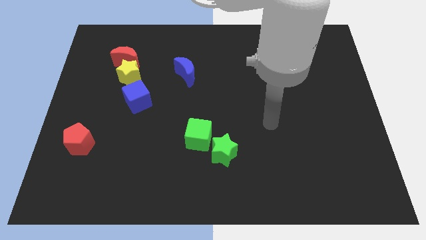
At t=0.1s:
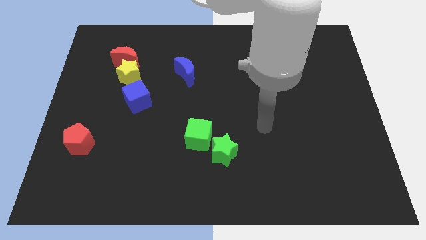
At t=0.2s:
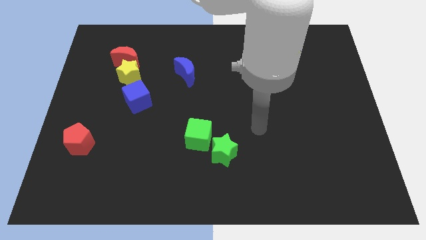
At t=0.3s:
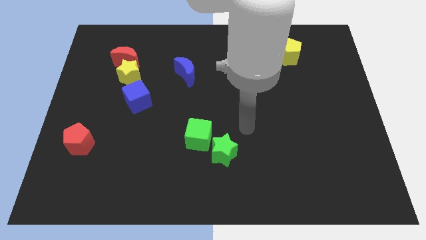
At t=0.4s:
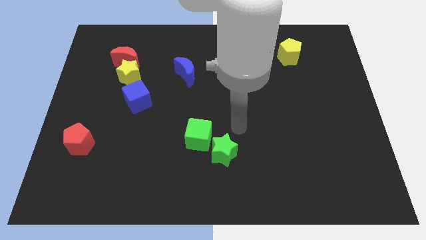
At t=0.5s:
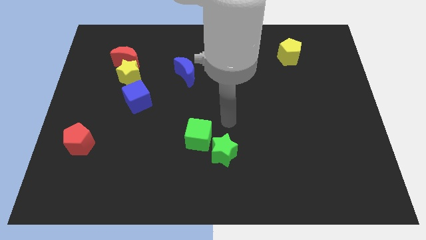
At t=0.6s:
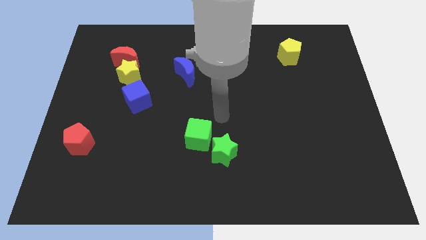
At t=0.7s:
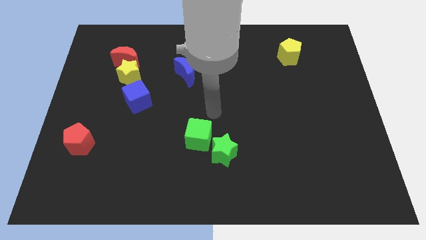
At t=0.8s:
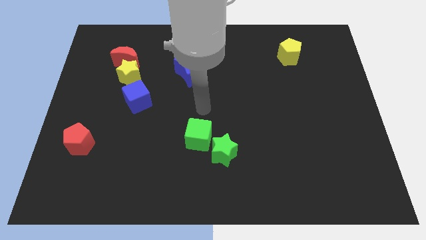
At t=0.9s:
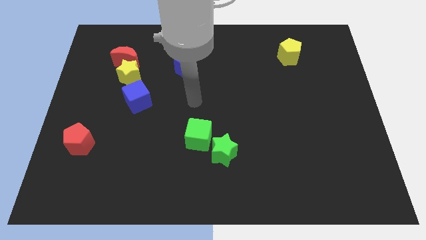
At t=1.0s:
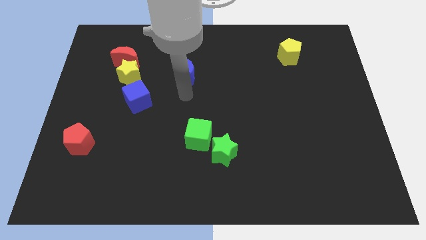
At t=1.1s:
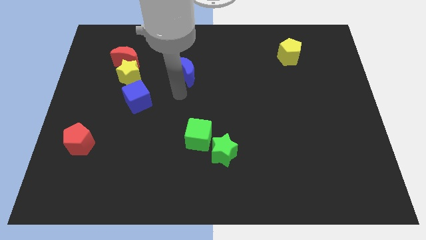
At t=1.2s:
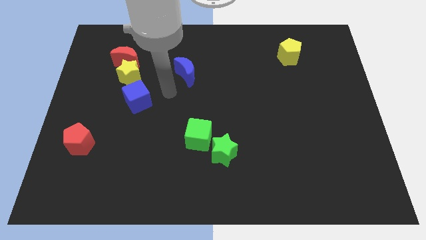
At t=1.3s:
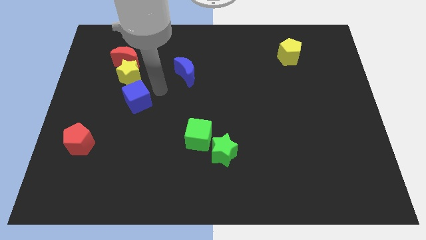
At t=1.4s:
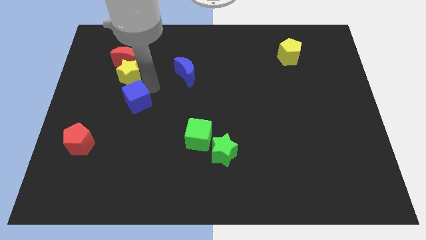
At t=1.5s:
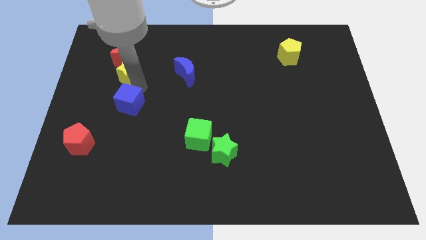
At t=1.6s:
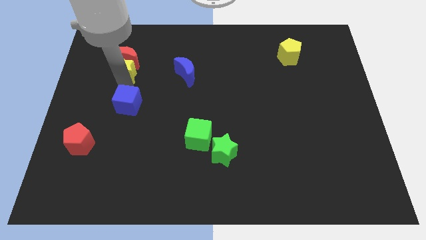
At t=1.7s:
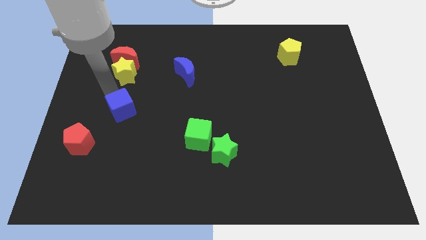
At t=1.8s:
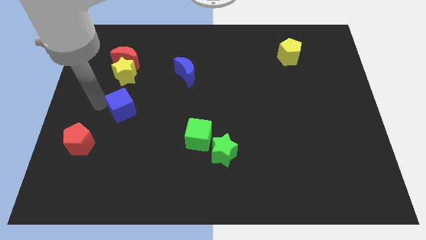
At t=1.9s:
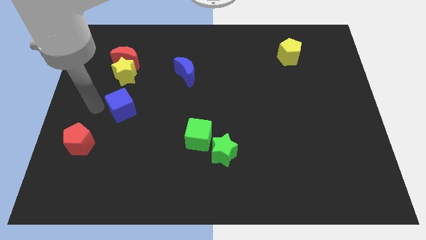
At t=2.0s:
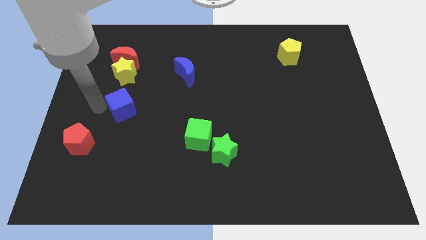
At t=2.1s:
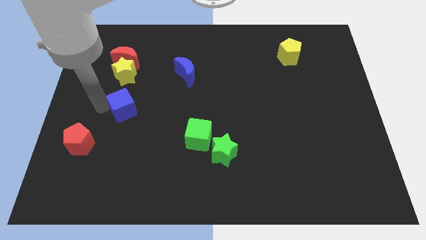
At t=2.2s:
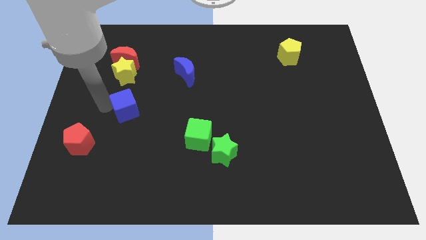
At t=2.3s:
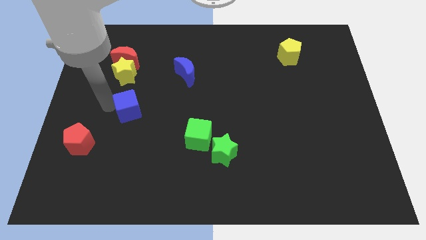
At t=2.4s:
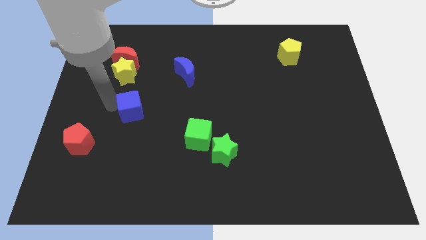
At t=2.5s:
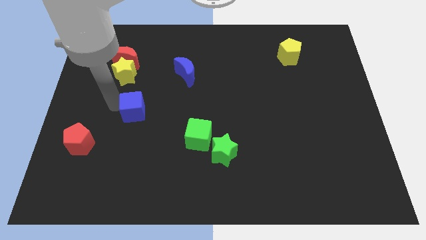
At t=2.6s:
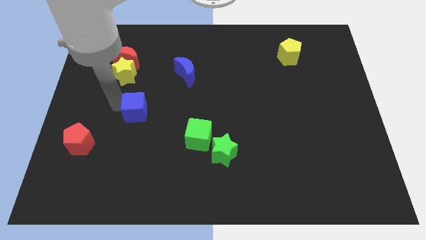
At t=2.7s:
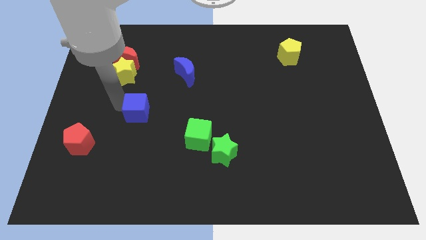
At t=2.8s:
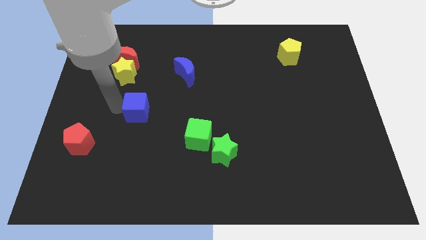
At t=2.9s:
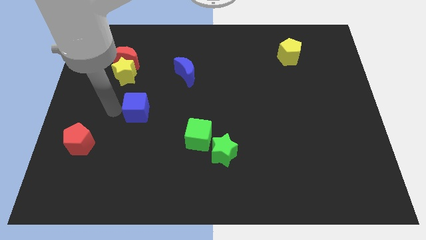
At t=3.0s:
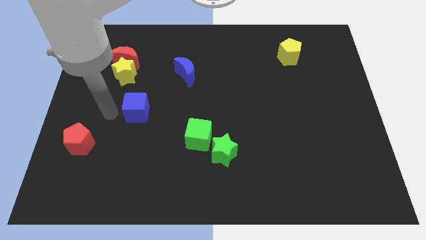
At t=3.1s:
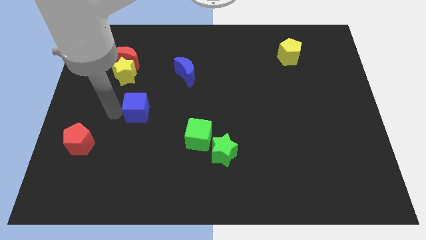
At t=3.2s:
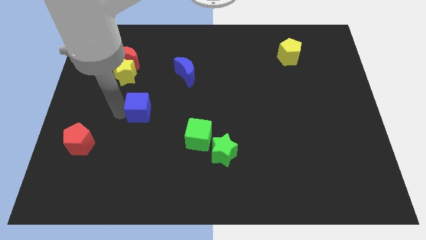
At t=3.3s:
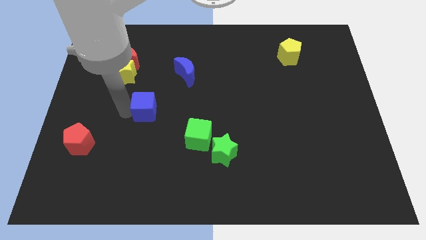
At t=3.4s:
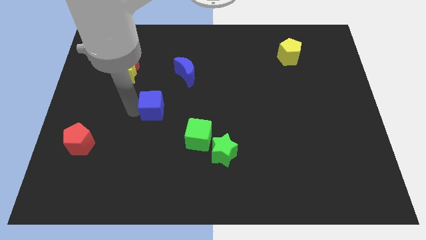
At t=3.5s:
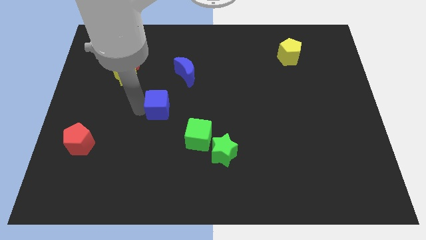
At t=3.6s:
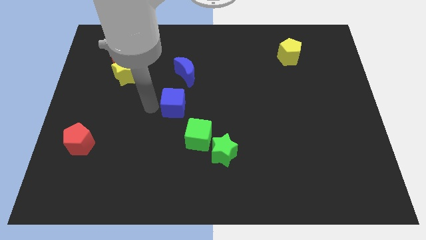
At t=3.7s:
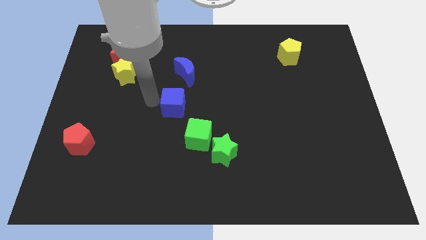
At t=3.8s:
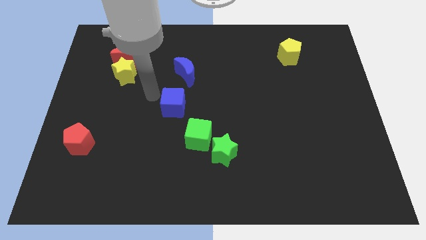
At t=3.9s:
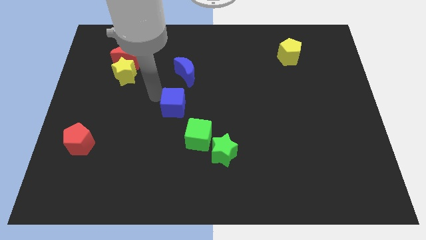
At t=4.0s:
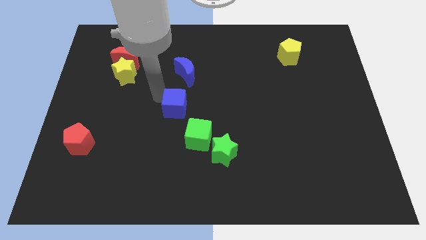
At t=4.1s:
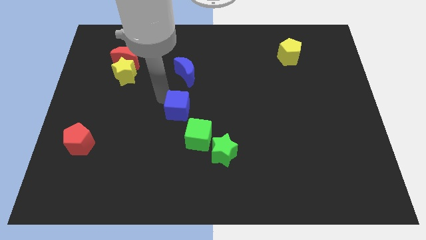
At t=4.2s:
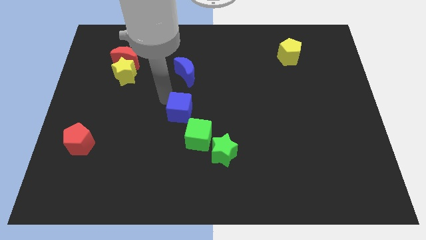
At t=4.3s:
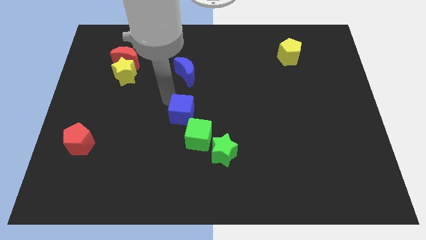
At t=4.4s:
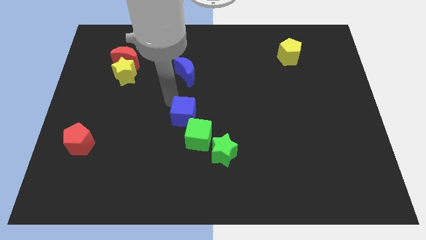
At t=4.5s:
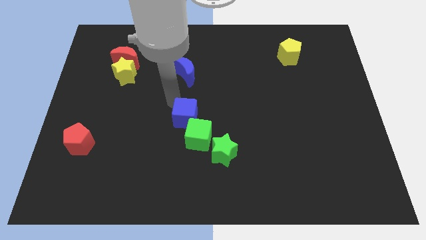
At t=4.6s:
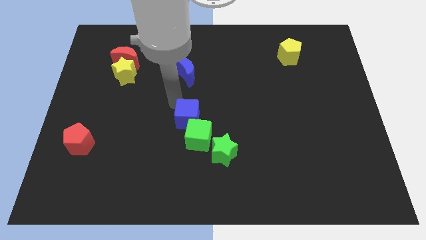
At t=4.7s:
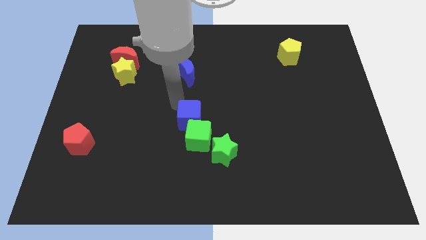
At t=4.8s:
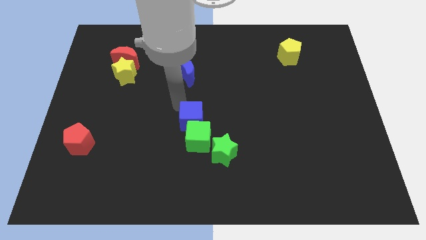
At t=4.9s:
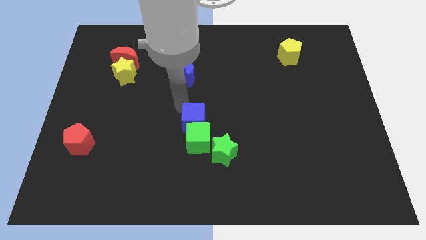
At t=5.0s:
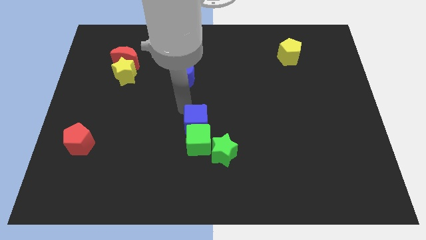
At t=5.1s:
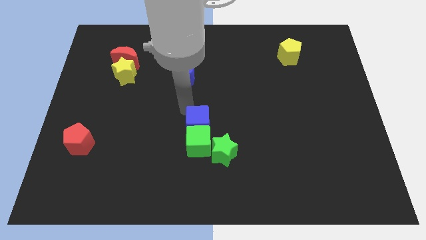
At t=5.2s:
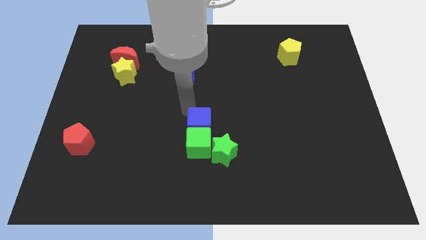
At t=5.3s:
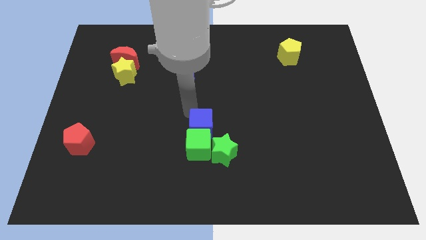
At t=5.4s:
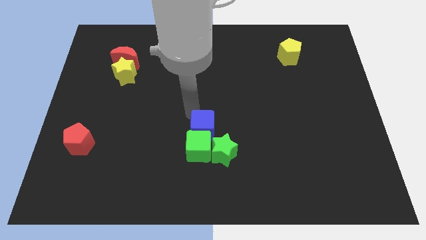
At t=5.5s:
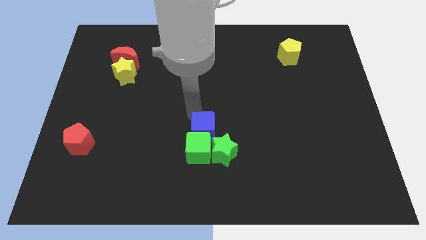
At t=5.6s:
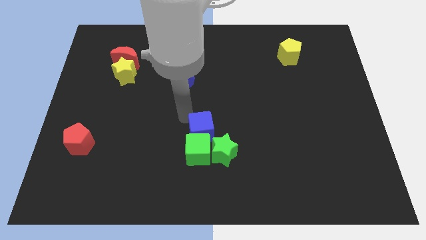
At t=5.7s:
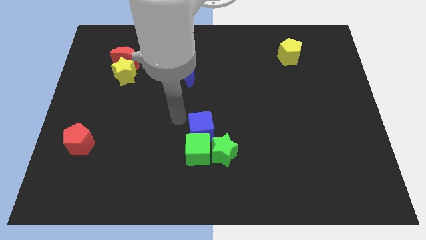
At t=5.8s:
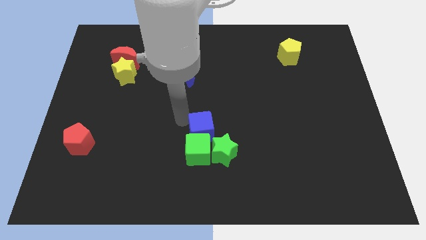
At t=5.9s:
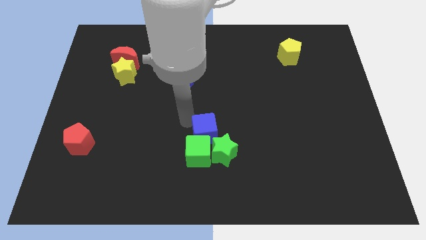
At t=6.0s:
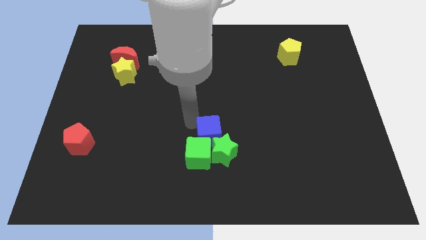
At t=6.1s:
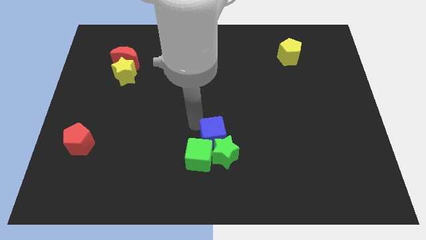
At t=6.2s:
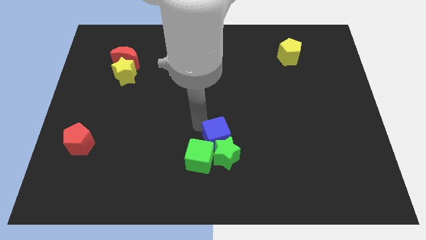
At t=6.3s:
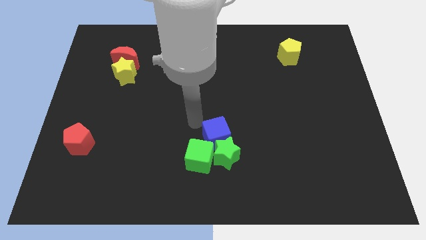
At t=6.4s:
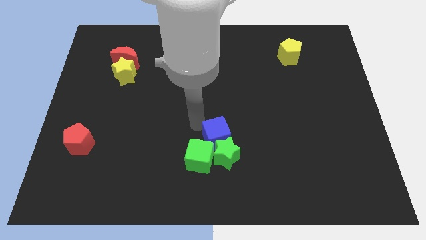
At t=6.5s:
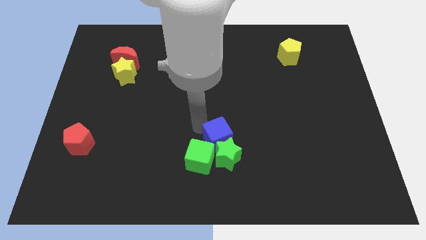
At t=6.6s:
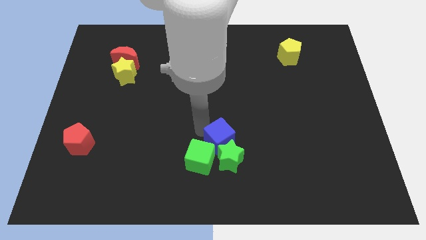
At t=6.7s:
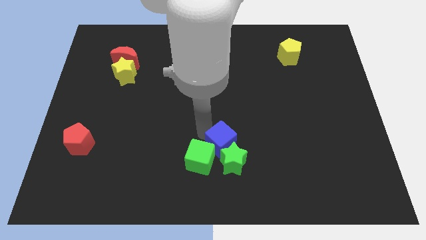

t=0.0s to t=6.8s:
slide the blue cube right of the green cube
